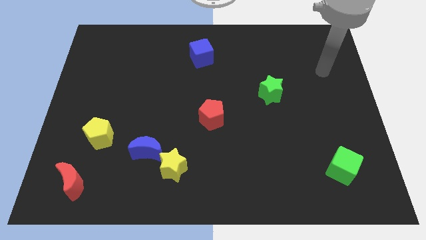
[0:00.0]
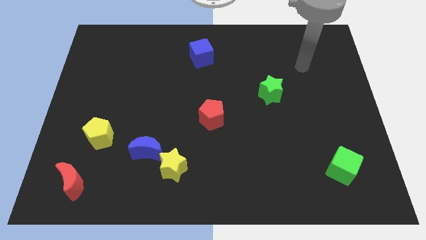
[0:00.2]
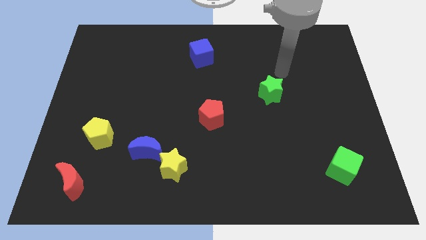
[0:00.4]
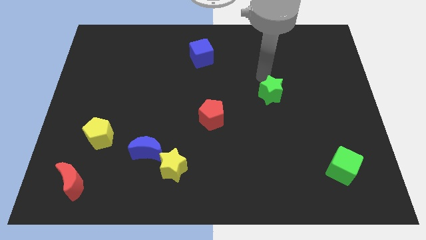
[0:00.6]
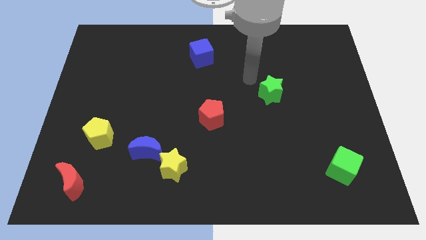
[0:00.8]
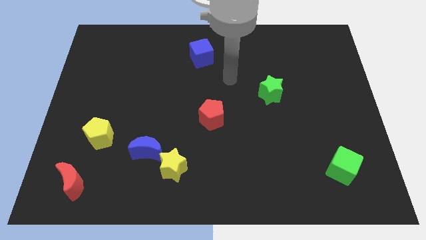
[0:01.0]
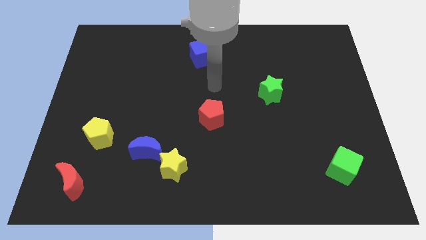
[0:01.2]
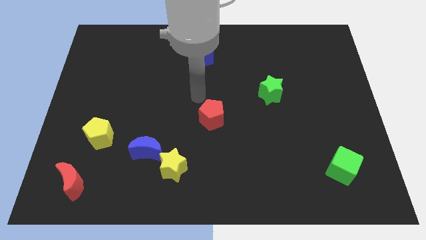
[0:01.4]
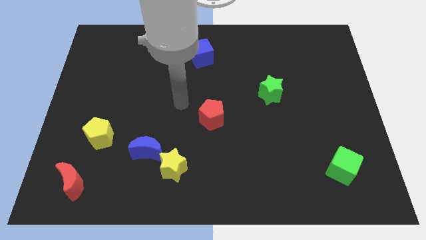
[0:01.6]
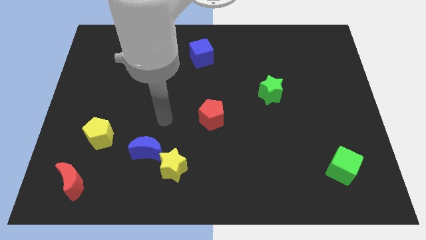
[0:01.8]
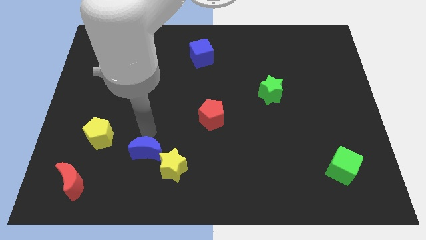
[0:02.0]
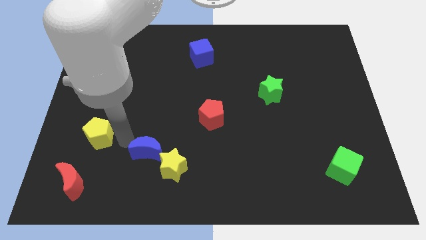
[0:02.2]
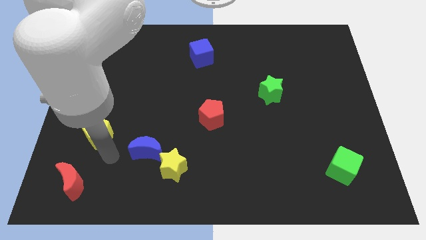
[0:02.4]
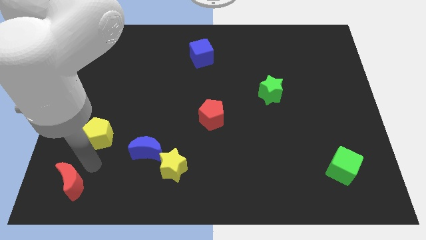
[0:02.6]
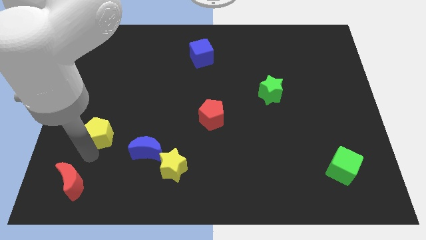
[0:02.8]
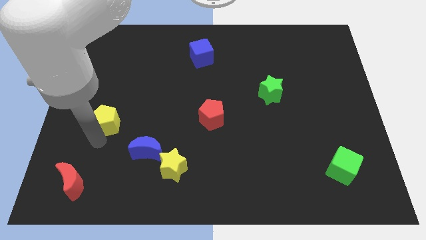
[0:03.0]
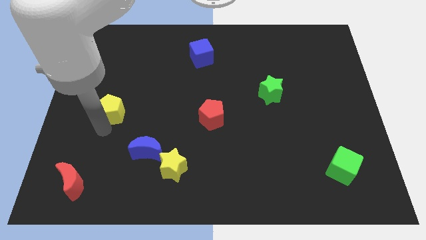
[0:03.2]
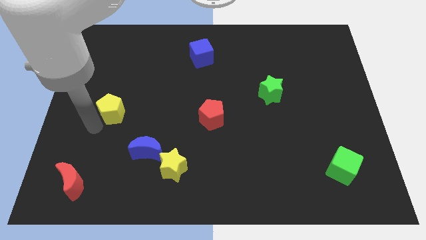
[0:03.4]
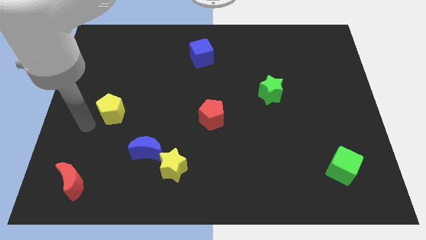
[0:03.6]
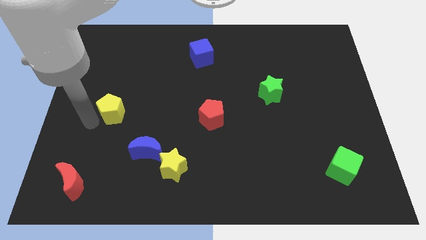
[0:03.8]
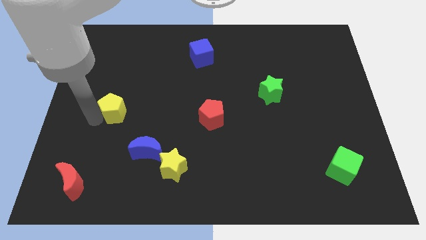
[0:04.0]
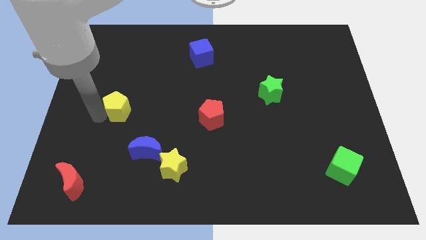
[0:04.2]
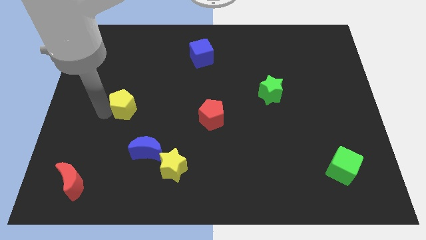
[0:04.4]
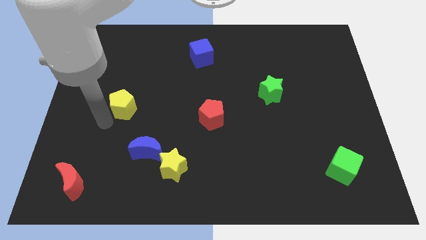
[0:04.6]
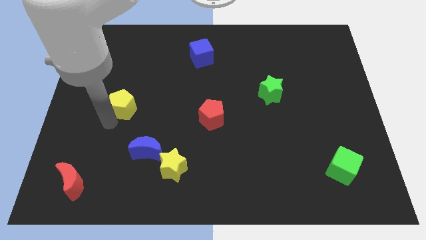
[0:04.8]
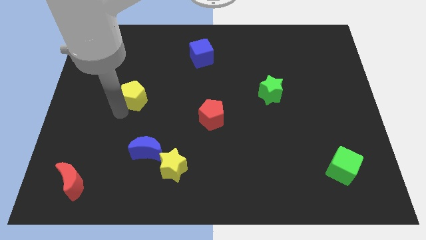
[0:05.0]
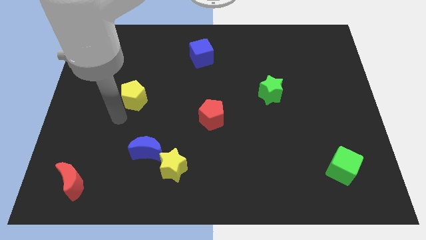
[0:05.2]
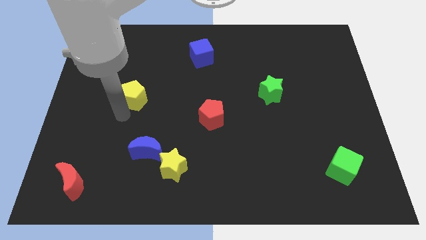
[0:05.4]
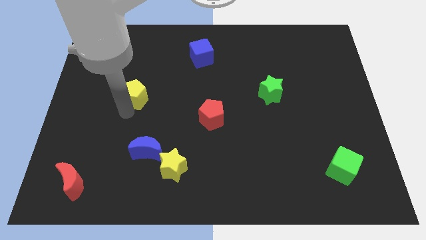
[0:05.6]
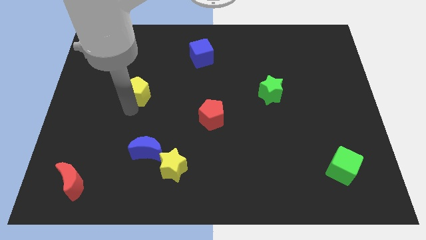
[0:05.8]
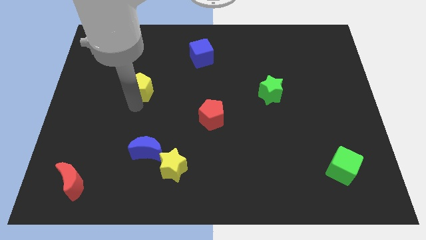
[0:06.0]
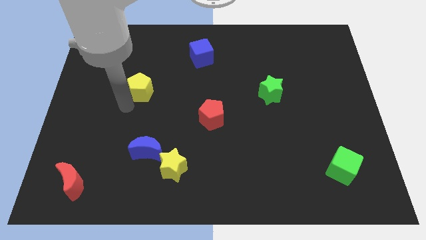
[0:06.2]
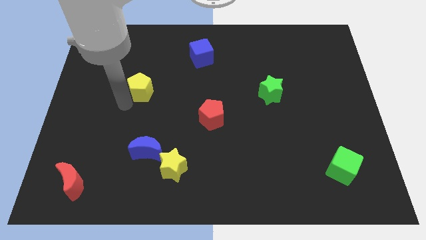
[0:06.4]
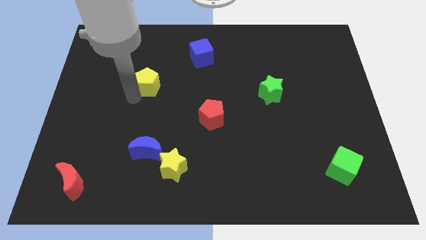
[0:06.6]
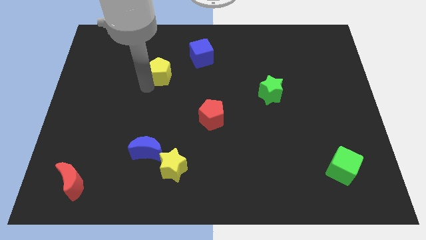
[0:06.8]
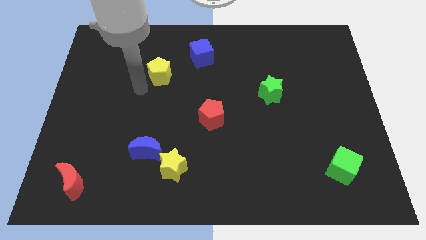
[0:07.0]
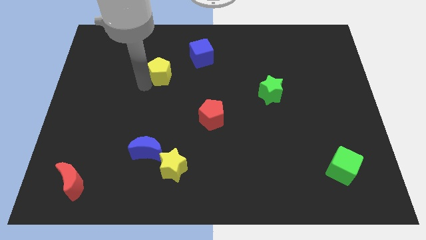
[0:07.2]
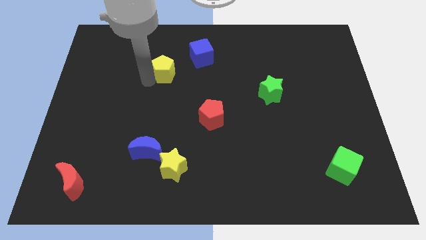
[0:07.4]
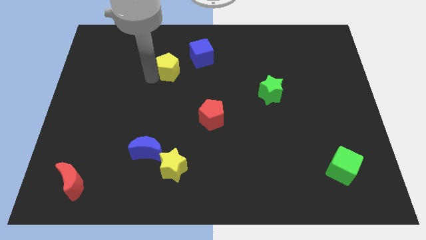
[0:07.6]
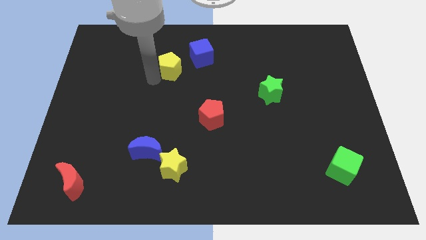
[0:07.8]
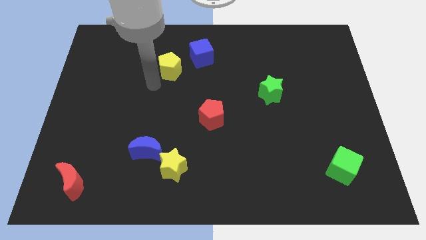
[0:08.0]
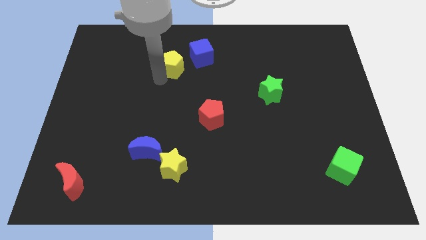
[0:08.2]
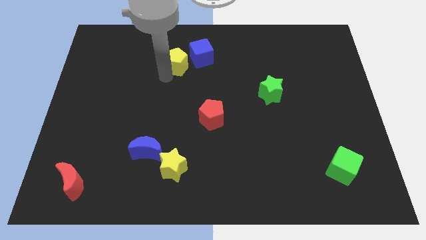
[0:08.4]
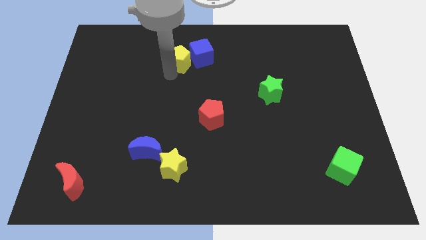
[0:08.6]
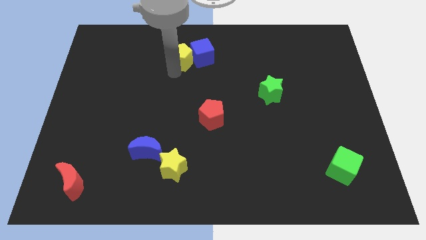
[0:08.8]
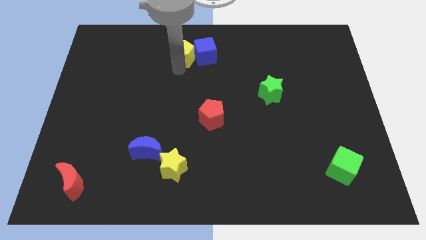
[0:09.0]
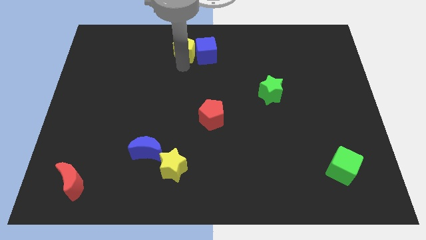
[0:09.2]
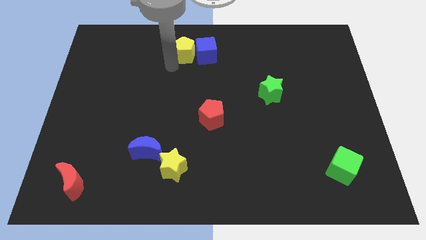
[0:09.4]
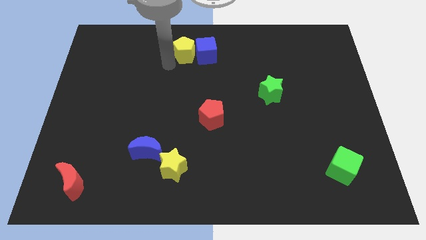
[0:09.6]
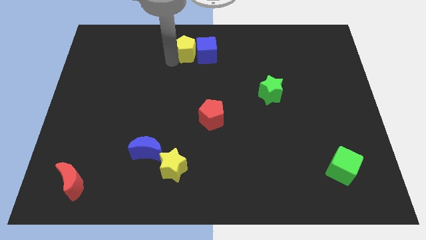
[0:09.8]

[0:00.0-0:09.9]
push the yellow pentagon to the top

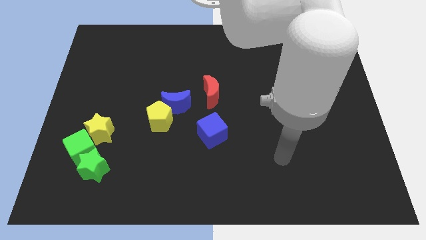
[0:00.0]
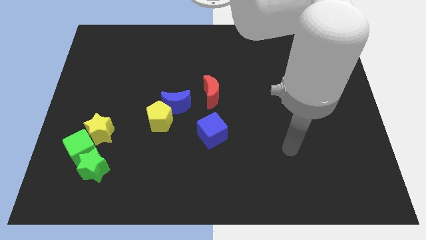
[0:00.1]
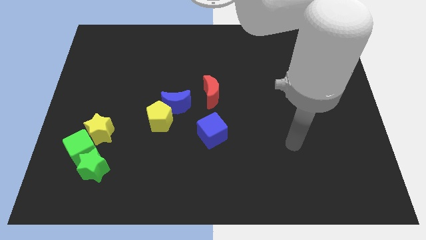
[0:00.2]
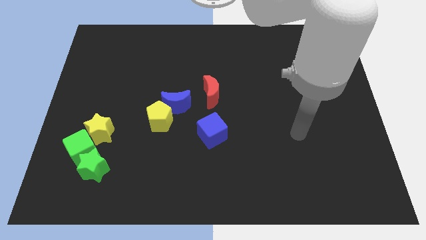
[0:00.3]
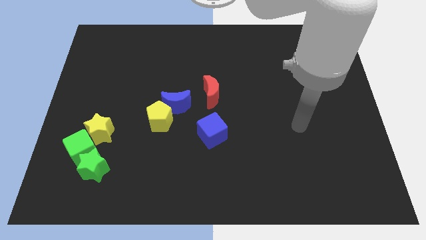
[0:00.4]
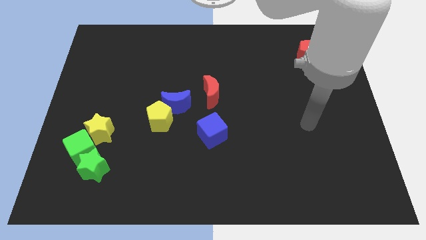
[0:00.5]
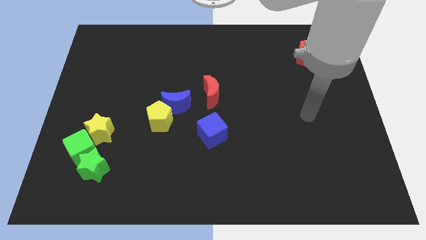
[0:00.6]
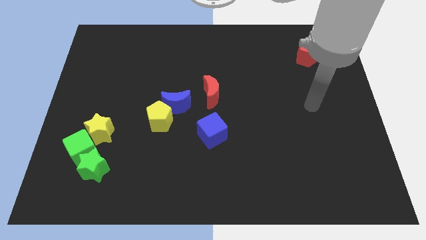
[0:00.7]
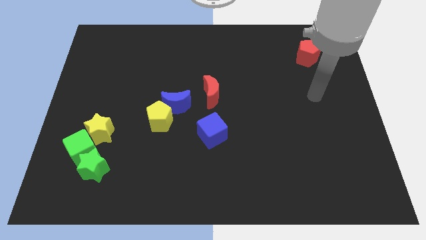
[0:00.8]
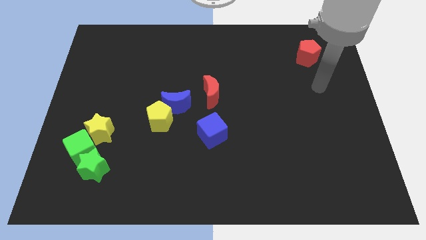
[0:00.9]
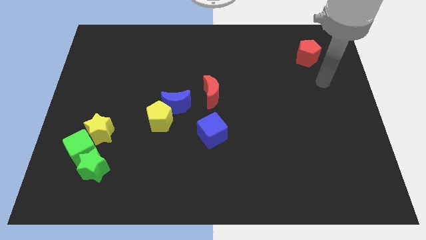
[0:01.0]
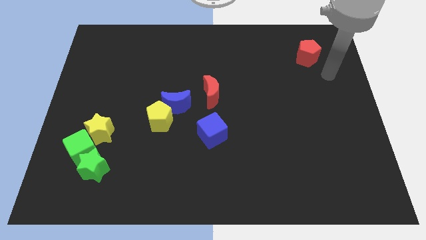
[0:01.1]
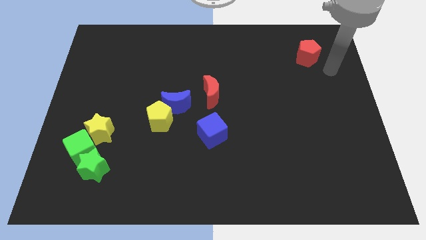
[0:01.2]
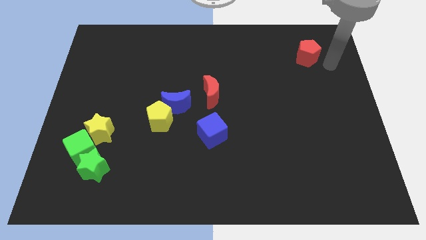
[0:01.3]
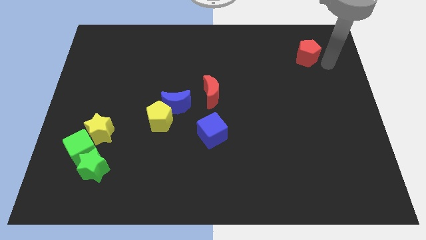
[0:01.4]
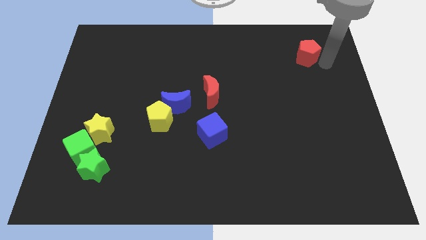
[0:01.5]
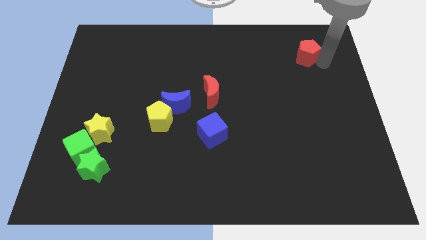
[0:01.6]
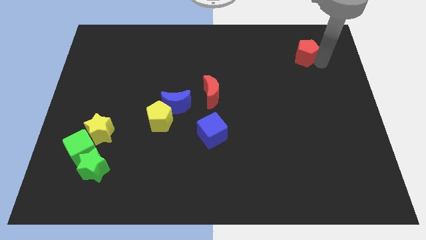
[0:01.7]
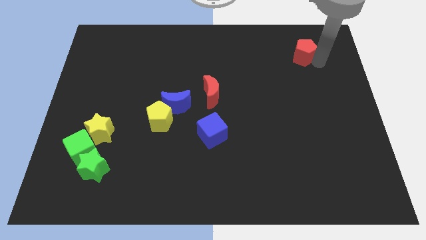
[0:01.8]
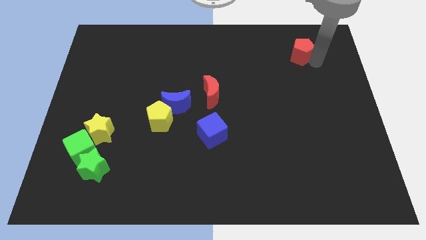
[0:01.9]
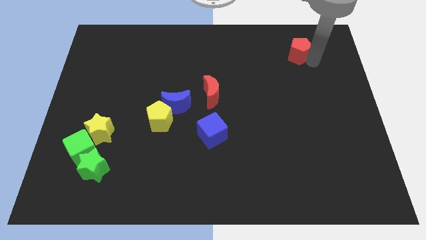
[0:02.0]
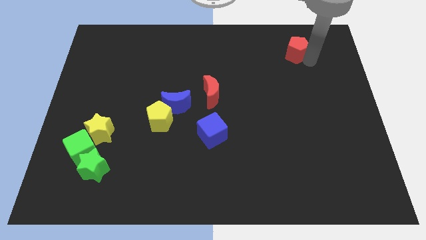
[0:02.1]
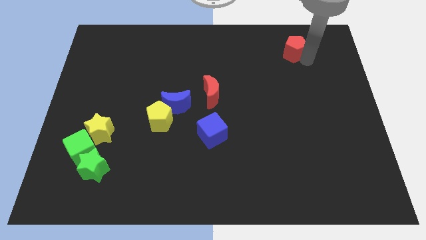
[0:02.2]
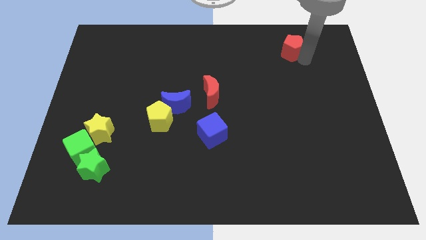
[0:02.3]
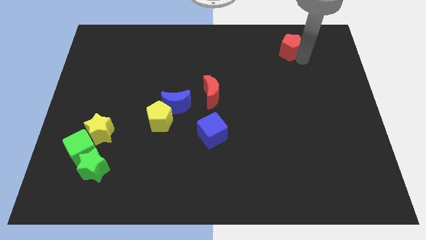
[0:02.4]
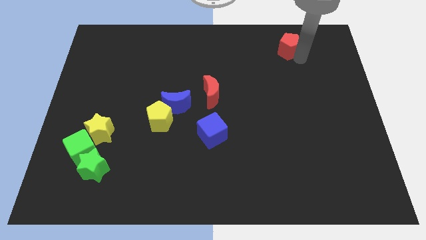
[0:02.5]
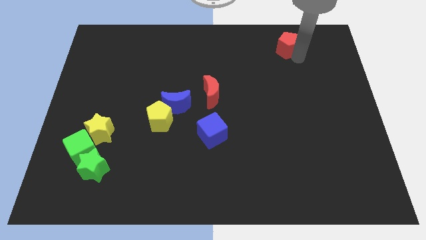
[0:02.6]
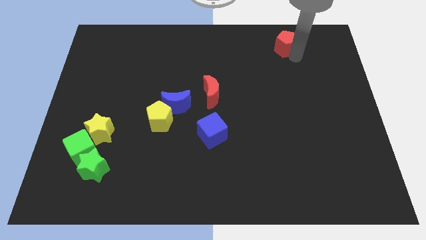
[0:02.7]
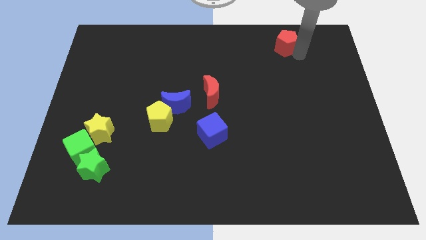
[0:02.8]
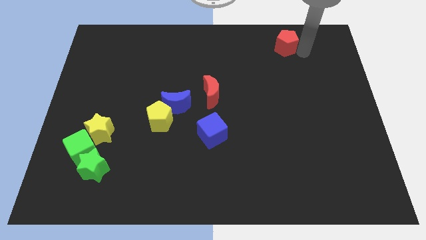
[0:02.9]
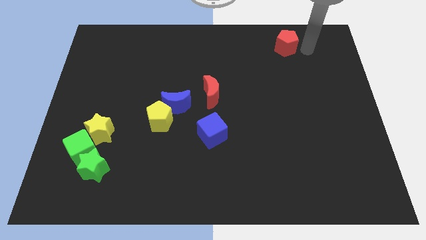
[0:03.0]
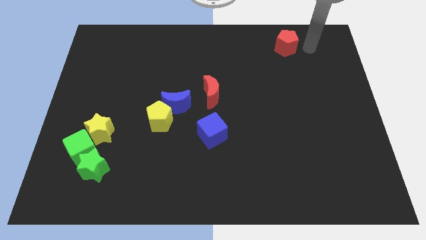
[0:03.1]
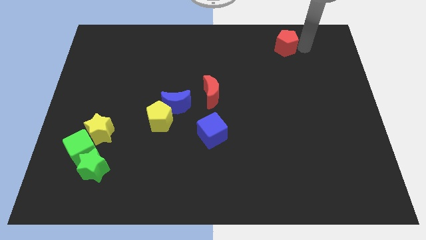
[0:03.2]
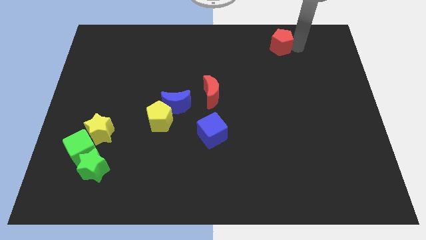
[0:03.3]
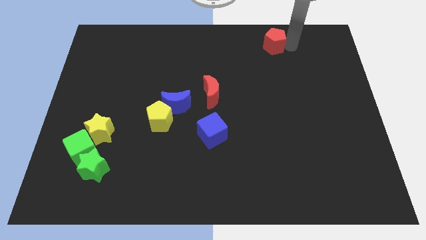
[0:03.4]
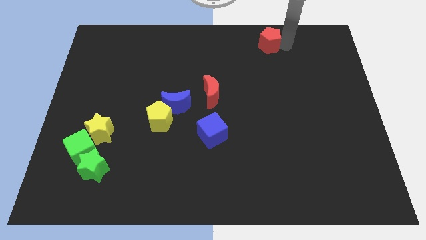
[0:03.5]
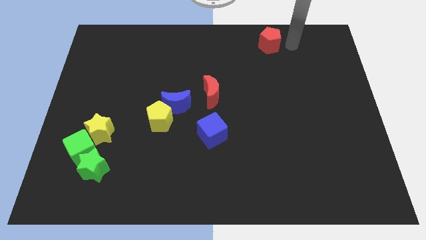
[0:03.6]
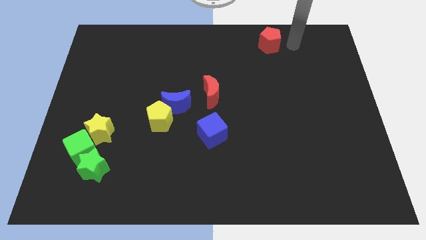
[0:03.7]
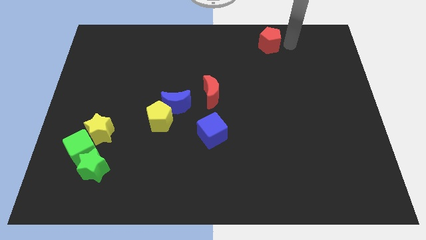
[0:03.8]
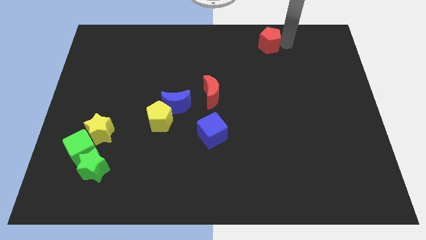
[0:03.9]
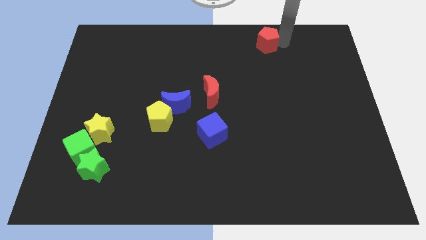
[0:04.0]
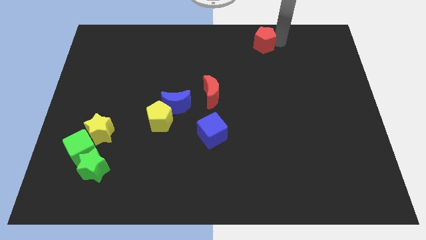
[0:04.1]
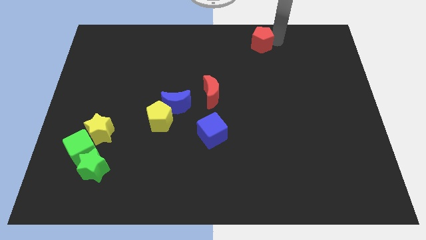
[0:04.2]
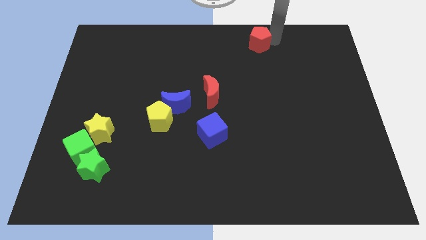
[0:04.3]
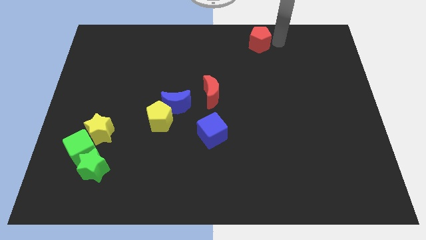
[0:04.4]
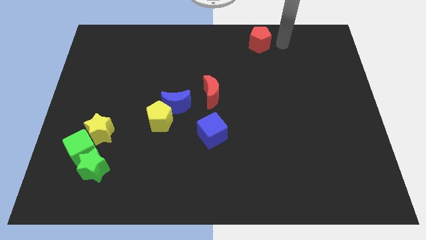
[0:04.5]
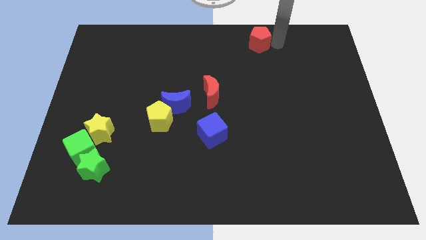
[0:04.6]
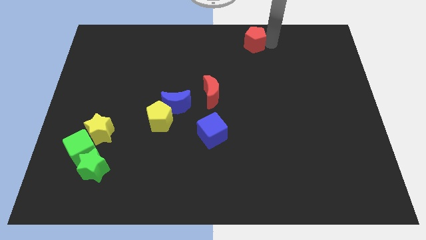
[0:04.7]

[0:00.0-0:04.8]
slide the red pentagon to the top side
